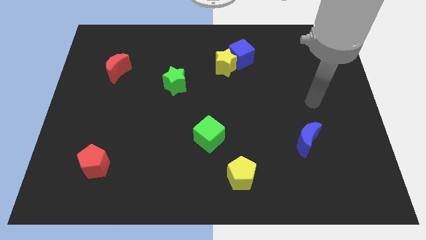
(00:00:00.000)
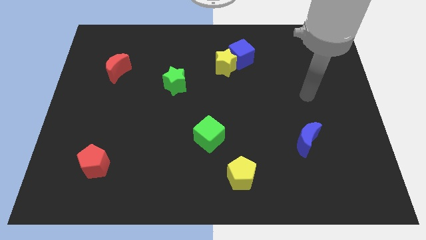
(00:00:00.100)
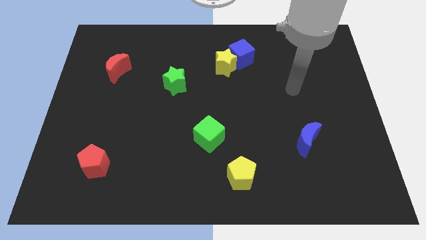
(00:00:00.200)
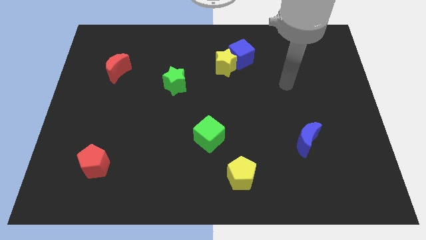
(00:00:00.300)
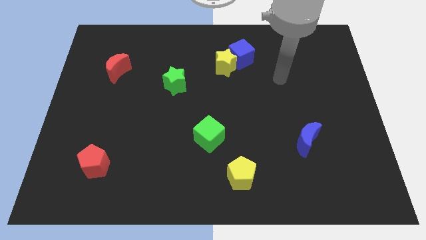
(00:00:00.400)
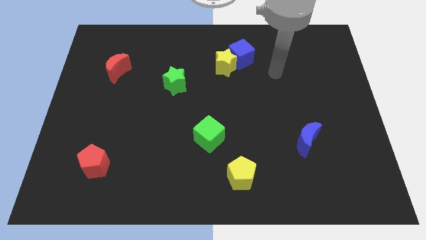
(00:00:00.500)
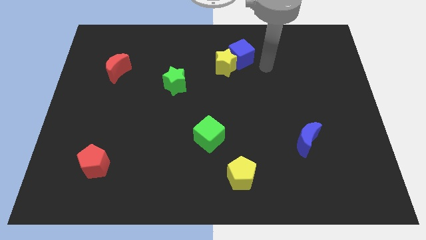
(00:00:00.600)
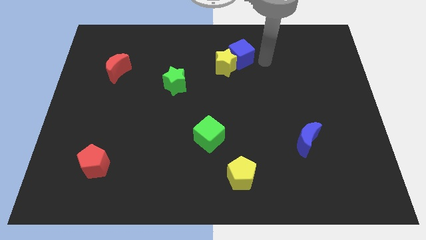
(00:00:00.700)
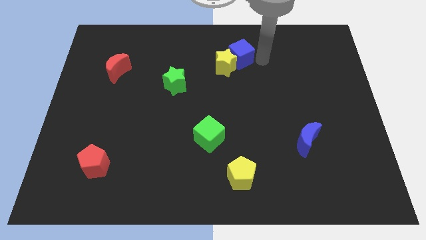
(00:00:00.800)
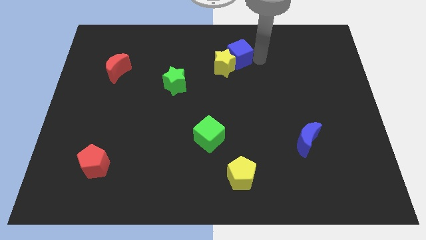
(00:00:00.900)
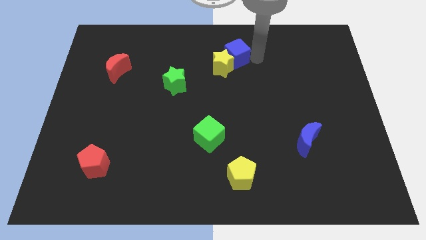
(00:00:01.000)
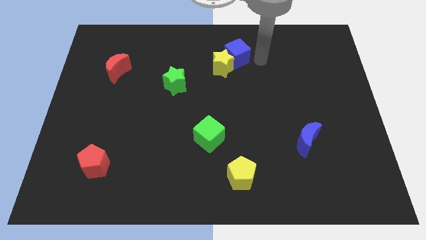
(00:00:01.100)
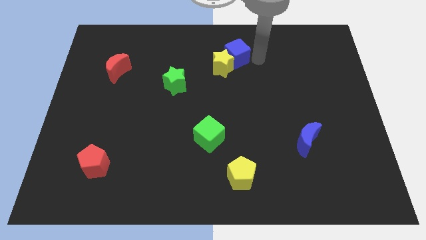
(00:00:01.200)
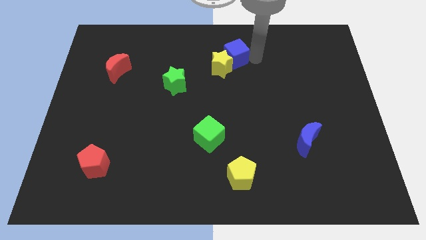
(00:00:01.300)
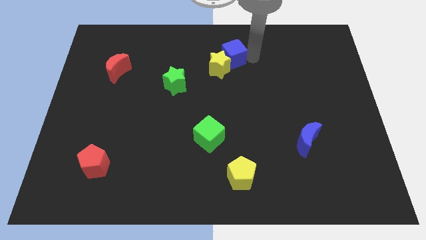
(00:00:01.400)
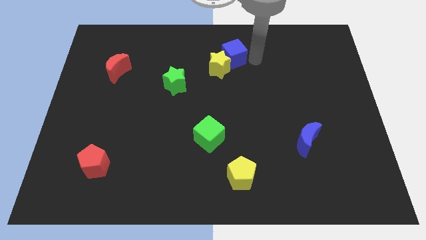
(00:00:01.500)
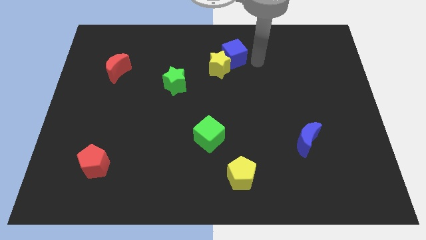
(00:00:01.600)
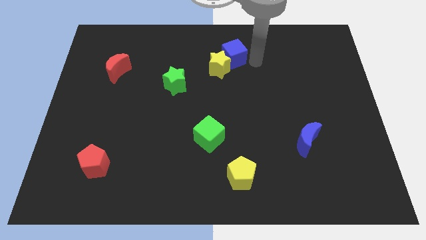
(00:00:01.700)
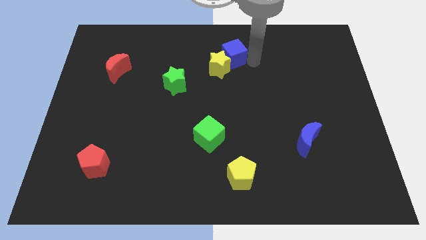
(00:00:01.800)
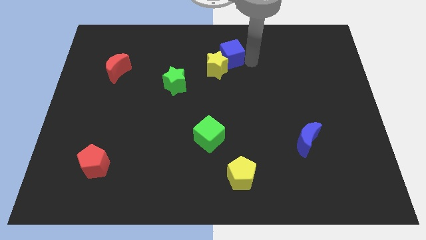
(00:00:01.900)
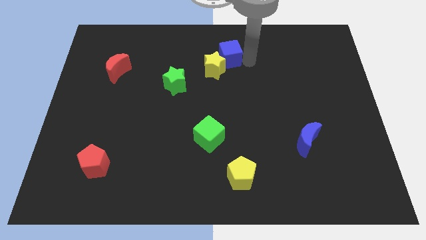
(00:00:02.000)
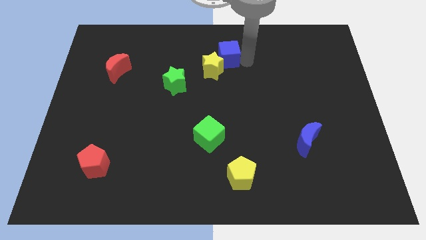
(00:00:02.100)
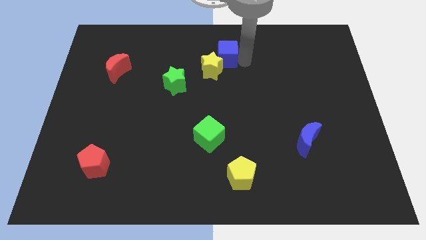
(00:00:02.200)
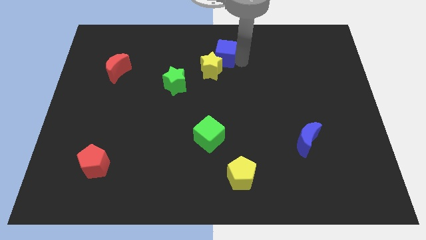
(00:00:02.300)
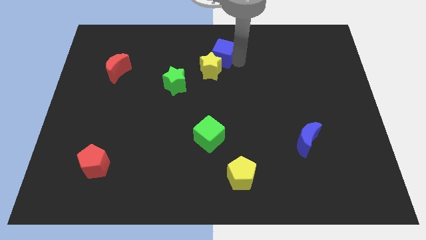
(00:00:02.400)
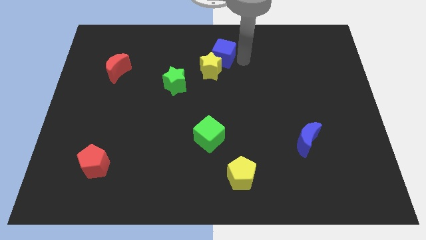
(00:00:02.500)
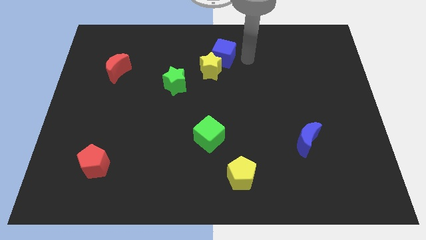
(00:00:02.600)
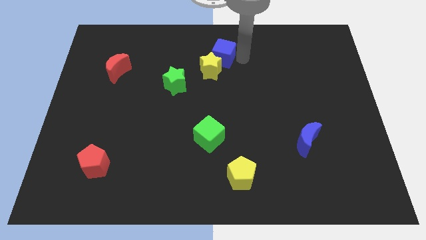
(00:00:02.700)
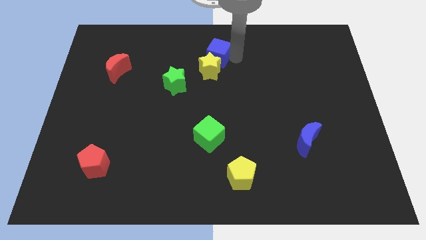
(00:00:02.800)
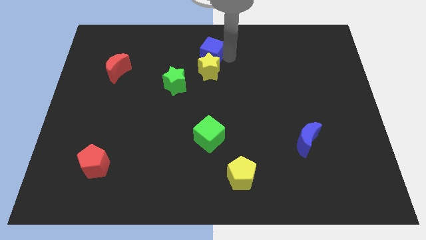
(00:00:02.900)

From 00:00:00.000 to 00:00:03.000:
push the blue cube to the left slightly

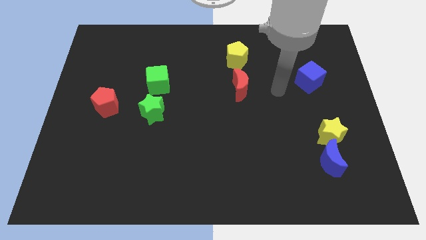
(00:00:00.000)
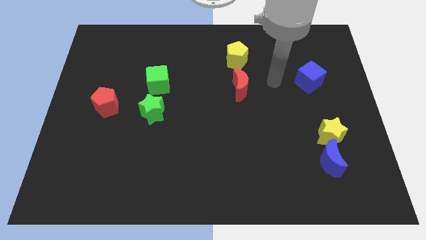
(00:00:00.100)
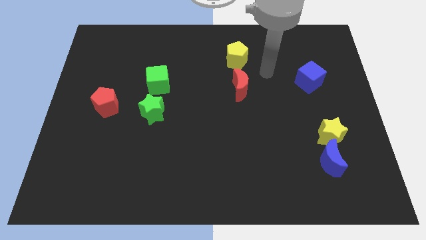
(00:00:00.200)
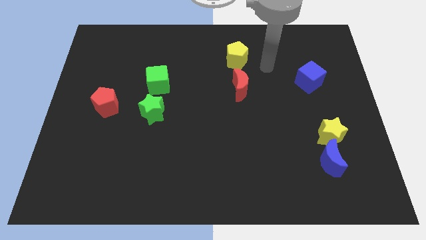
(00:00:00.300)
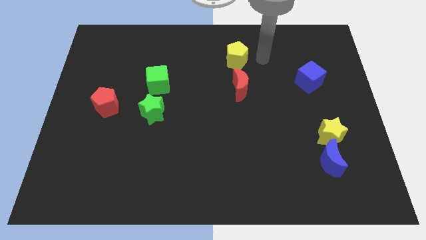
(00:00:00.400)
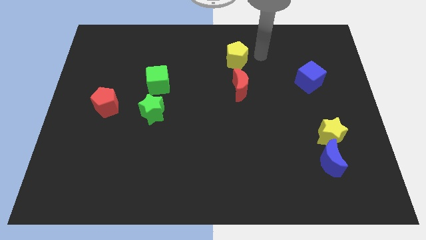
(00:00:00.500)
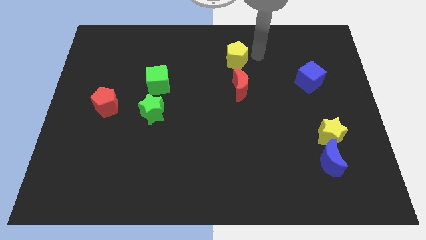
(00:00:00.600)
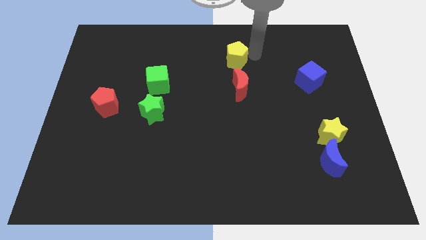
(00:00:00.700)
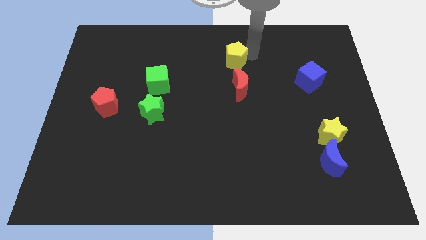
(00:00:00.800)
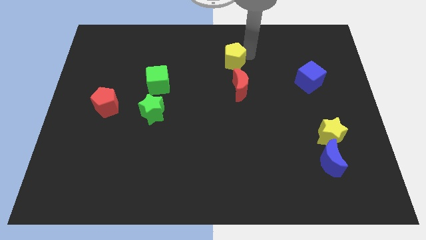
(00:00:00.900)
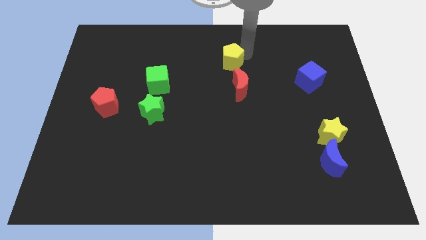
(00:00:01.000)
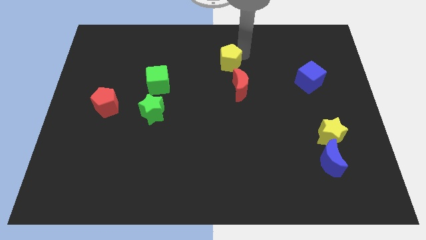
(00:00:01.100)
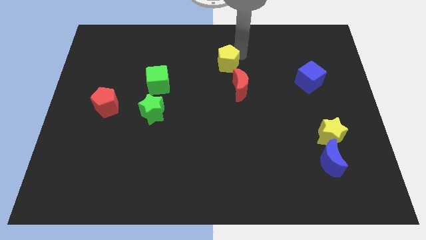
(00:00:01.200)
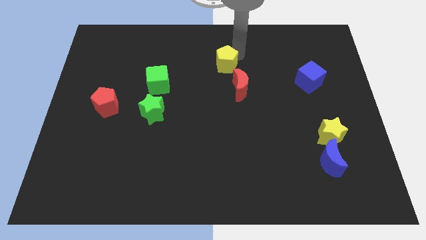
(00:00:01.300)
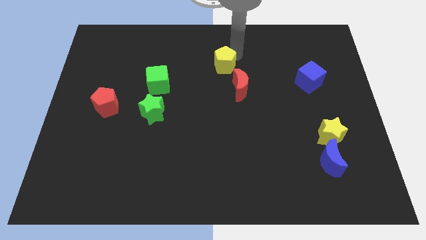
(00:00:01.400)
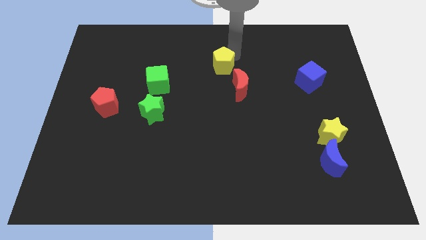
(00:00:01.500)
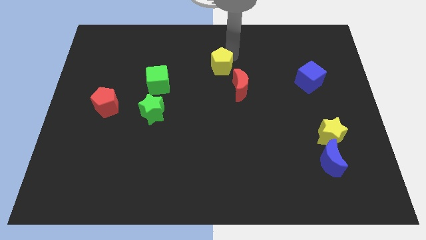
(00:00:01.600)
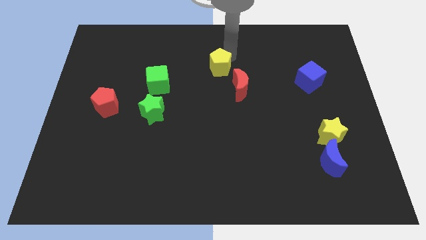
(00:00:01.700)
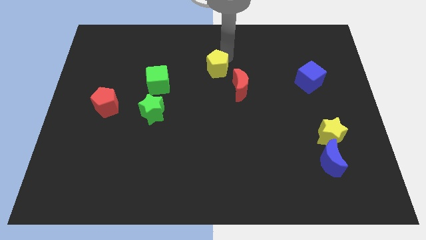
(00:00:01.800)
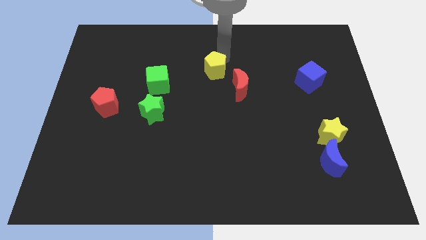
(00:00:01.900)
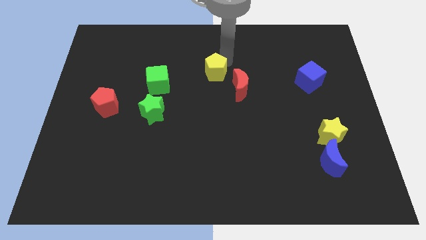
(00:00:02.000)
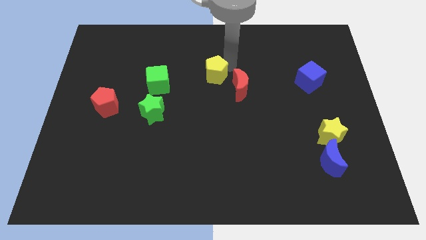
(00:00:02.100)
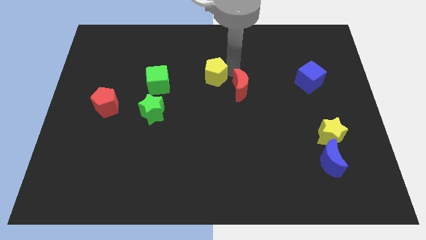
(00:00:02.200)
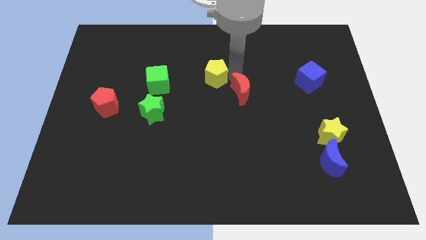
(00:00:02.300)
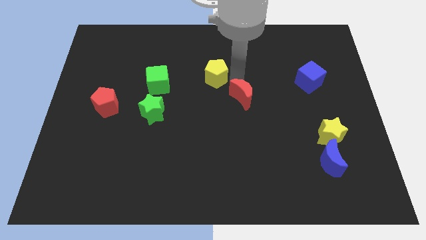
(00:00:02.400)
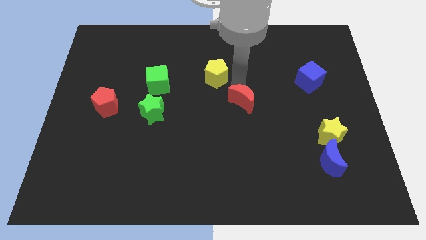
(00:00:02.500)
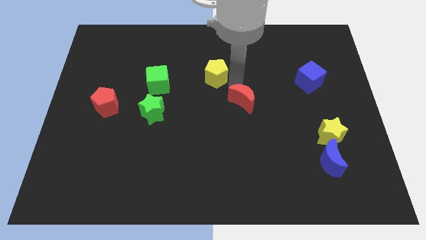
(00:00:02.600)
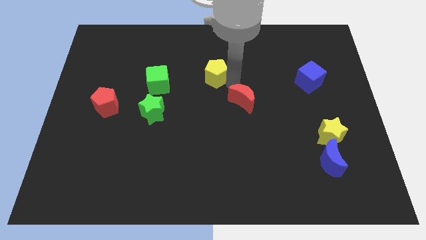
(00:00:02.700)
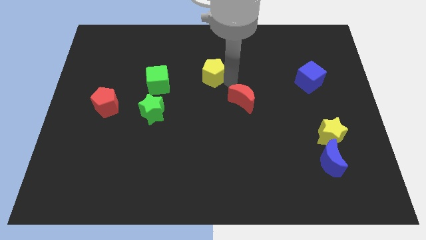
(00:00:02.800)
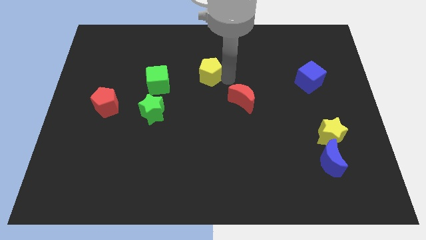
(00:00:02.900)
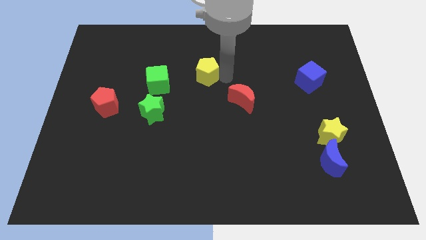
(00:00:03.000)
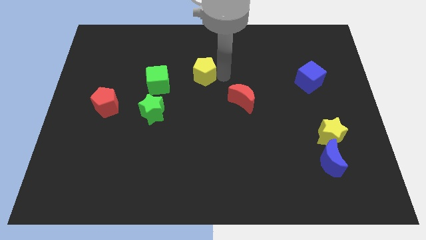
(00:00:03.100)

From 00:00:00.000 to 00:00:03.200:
move the yellow pentagon left a little

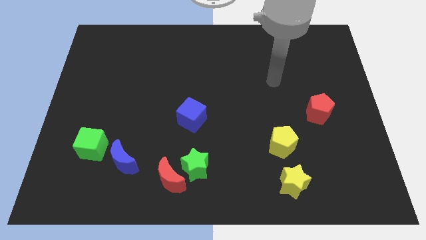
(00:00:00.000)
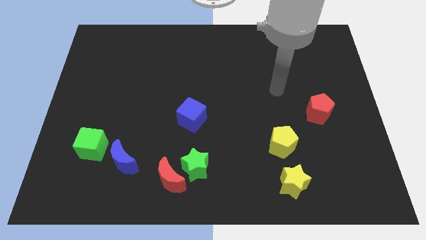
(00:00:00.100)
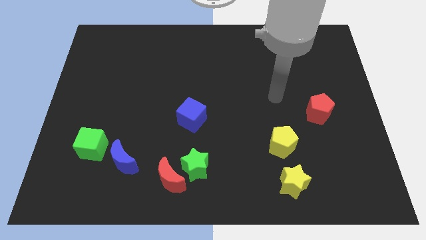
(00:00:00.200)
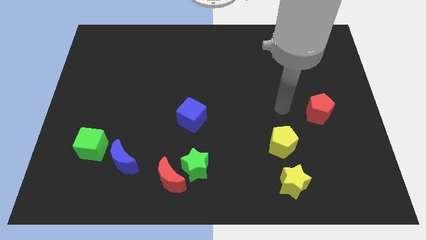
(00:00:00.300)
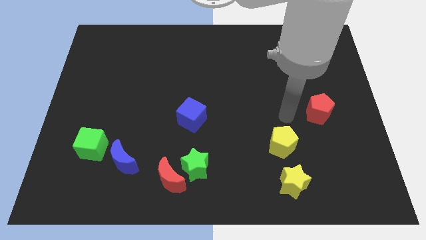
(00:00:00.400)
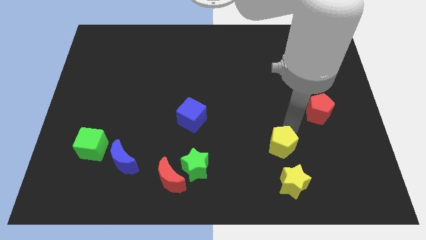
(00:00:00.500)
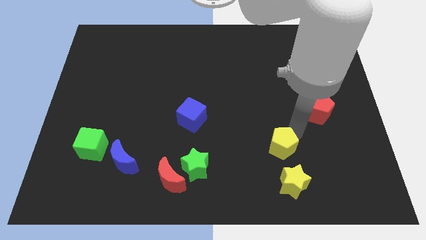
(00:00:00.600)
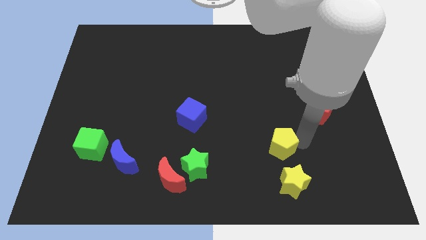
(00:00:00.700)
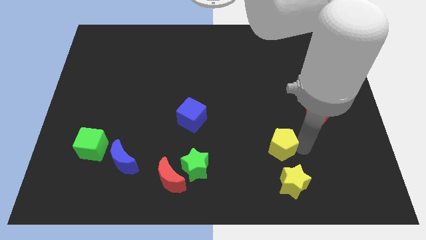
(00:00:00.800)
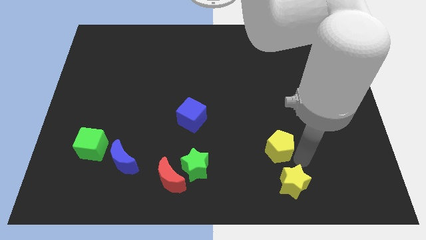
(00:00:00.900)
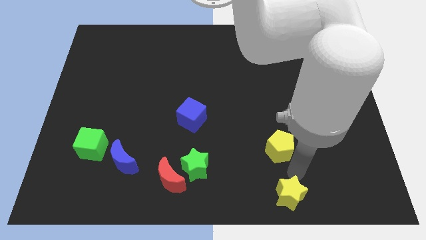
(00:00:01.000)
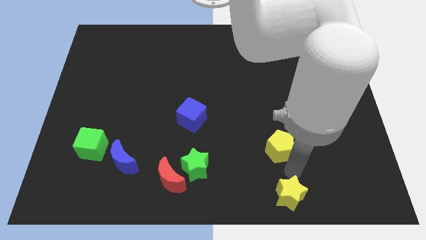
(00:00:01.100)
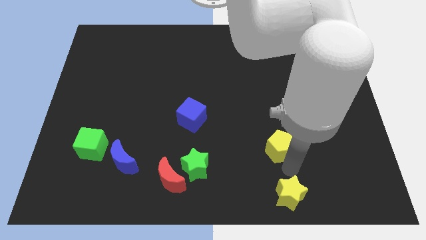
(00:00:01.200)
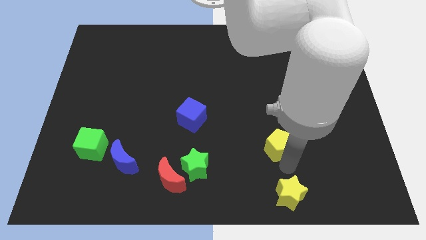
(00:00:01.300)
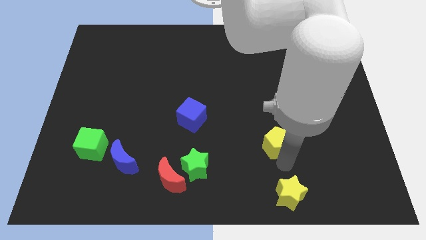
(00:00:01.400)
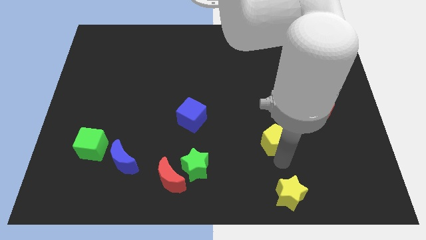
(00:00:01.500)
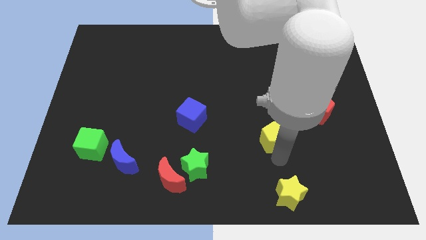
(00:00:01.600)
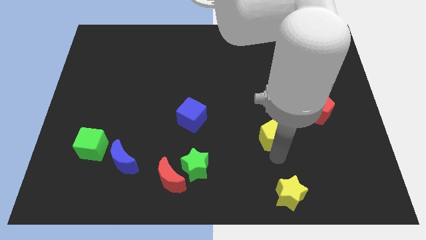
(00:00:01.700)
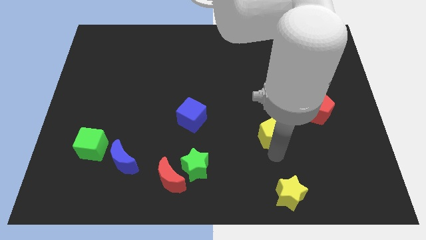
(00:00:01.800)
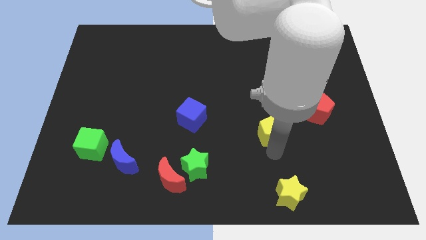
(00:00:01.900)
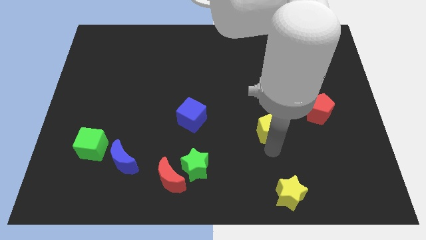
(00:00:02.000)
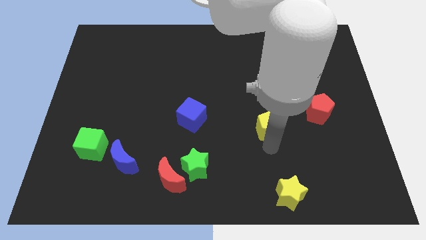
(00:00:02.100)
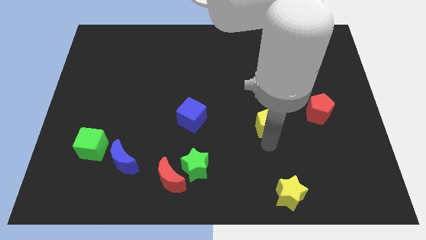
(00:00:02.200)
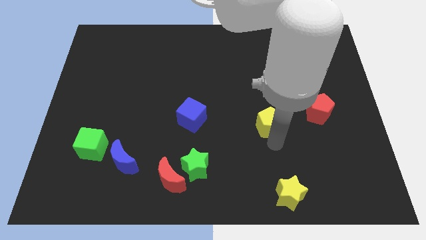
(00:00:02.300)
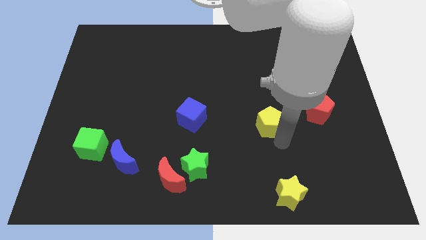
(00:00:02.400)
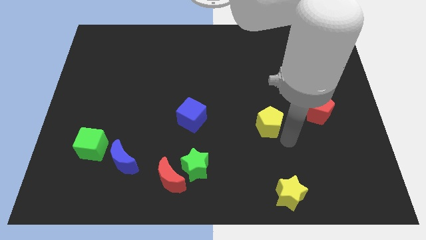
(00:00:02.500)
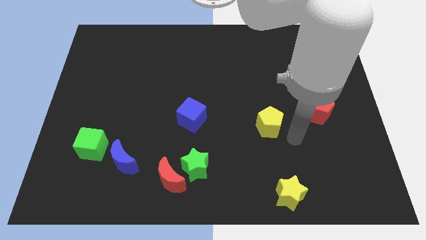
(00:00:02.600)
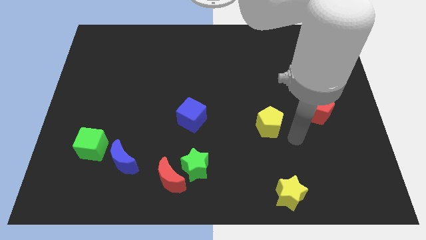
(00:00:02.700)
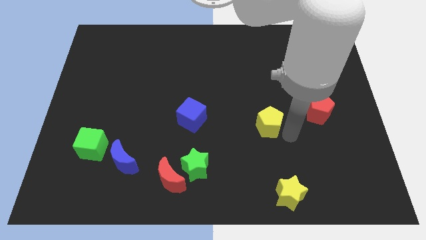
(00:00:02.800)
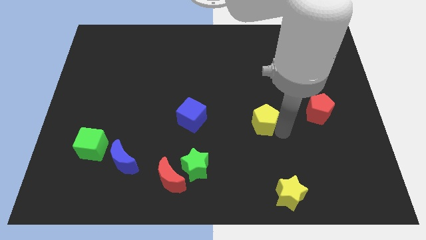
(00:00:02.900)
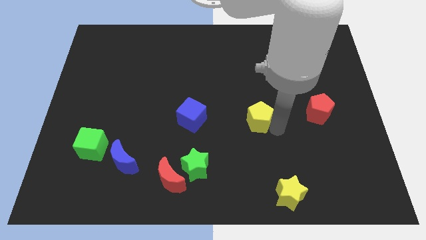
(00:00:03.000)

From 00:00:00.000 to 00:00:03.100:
slide the yellow pentagon diagonally upwards and left slightly
